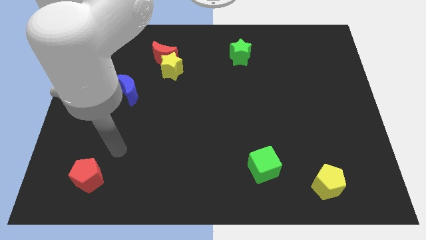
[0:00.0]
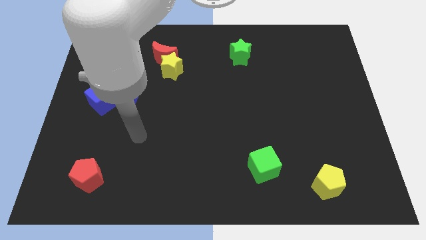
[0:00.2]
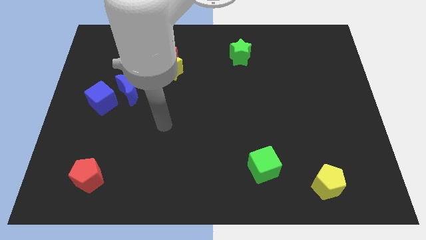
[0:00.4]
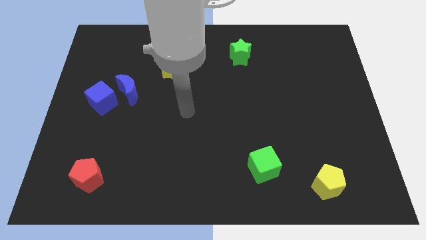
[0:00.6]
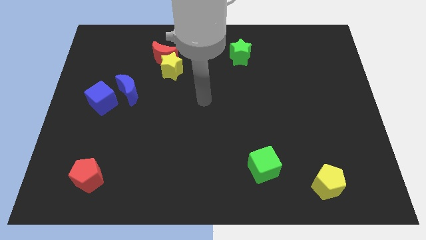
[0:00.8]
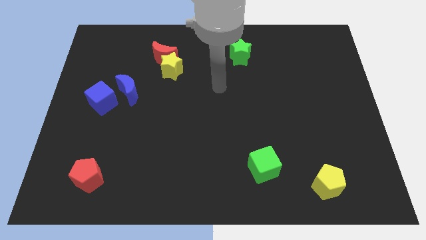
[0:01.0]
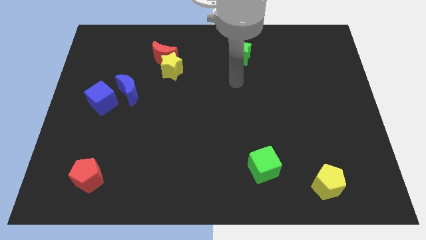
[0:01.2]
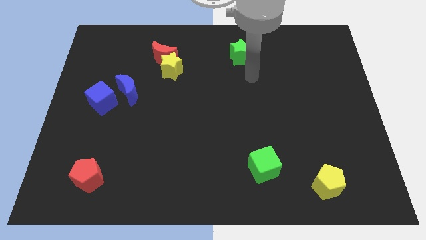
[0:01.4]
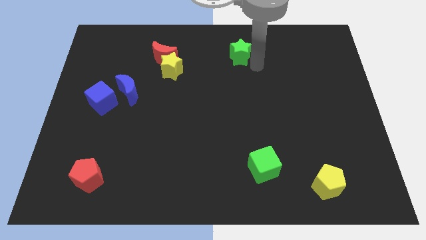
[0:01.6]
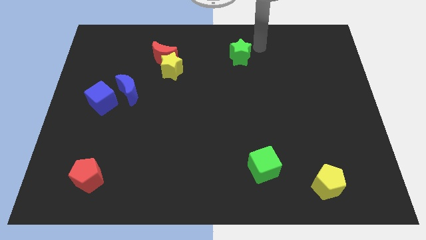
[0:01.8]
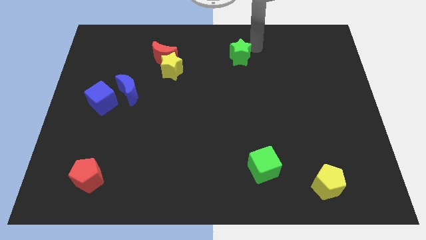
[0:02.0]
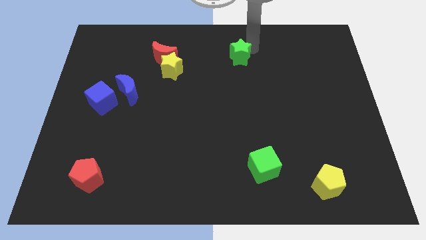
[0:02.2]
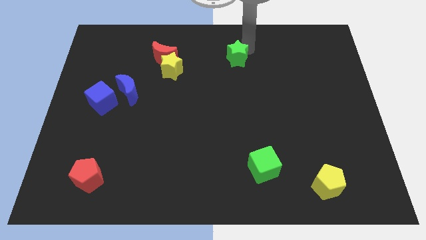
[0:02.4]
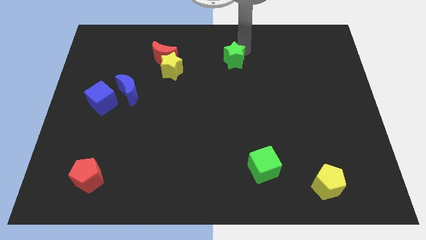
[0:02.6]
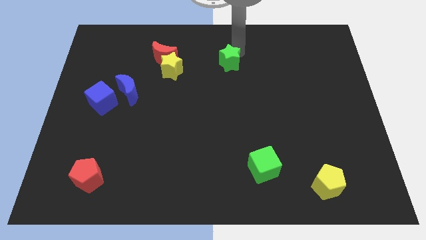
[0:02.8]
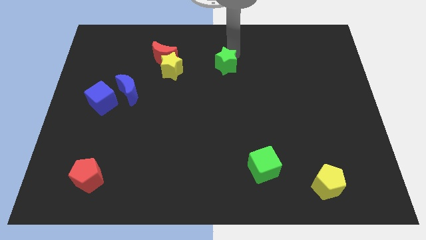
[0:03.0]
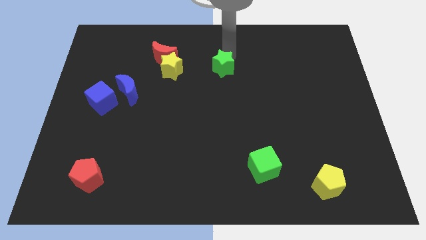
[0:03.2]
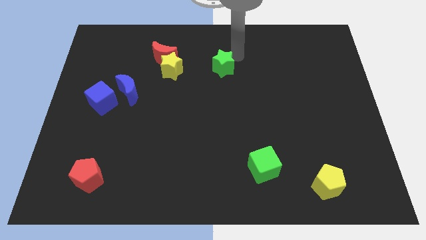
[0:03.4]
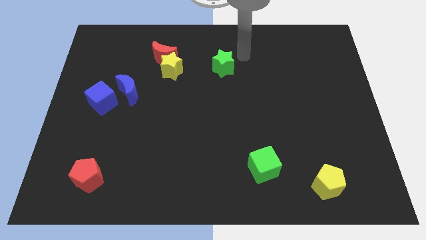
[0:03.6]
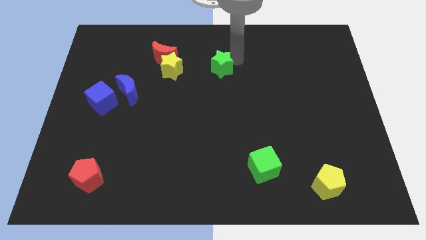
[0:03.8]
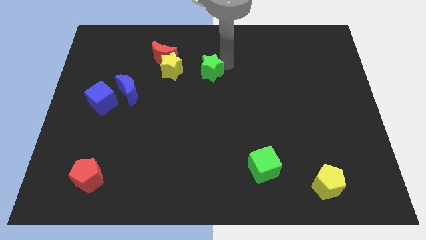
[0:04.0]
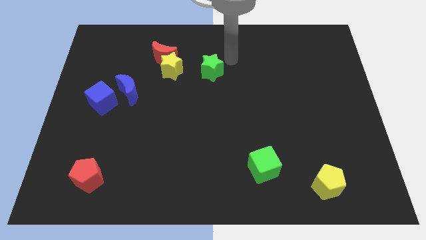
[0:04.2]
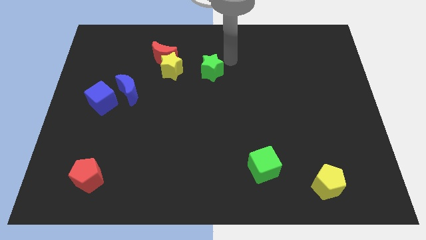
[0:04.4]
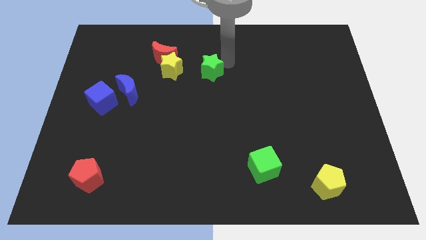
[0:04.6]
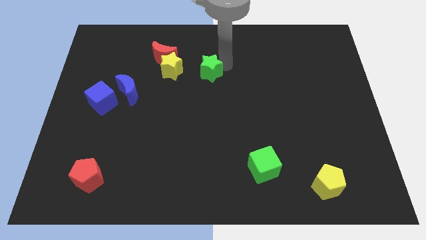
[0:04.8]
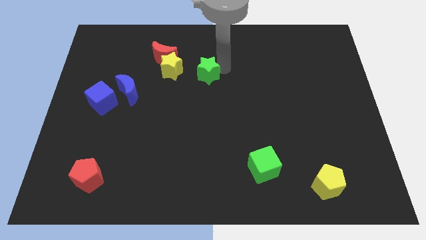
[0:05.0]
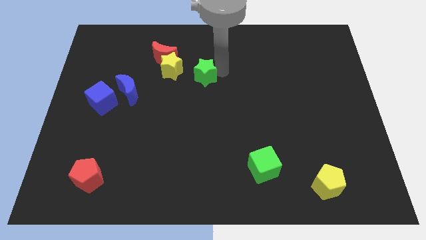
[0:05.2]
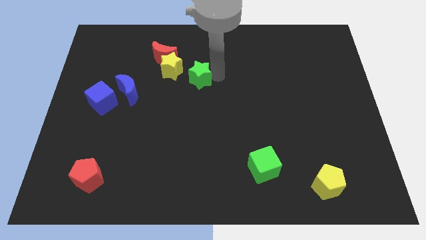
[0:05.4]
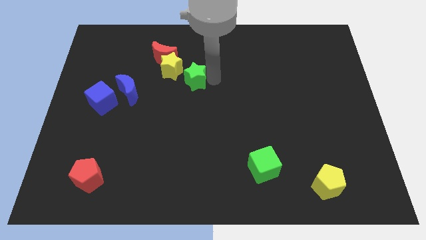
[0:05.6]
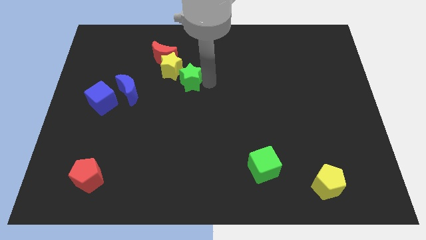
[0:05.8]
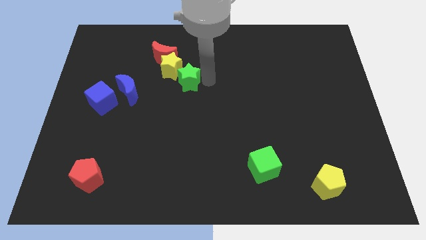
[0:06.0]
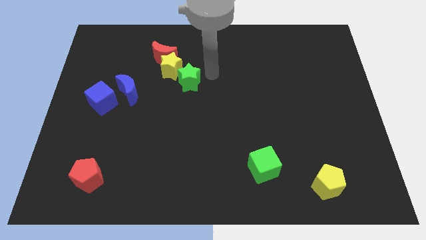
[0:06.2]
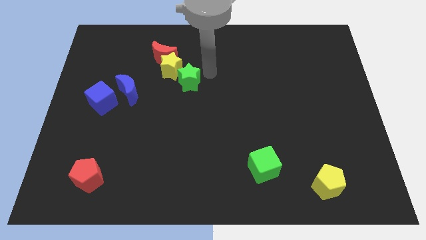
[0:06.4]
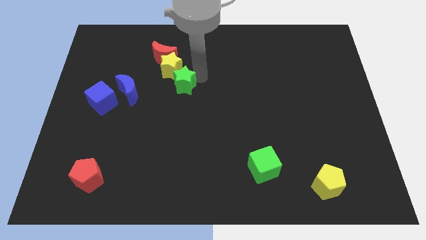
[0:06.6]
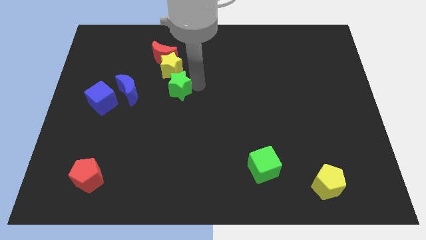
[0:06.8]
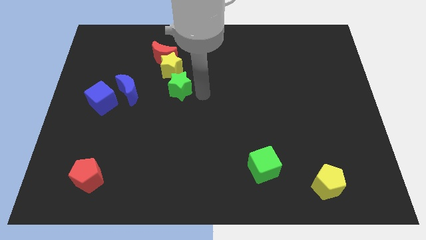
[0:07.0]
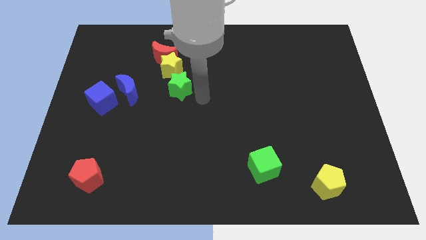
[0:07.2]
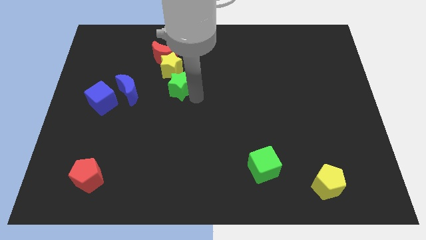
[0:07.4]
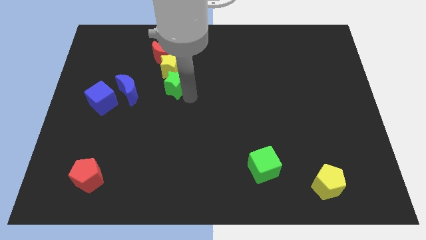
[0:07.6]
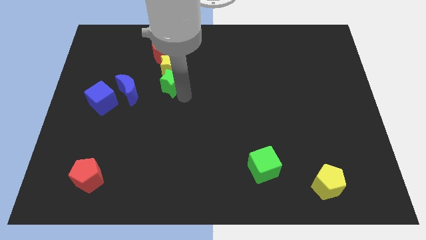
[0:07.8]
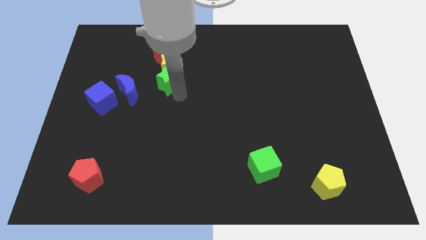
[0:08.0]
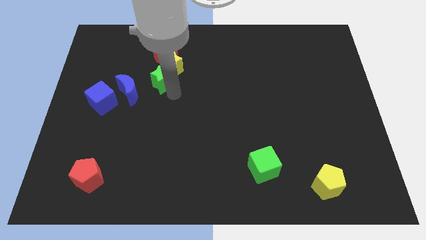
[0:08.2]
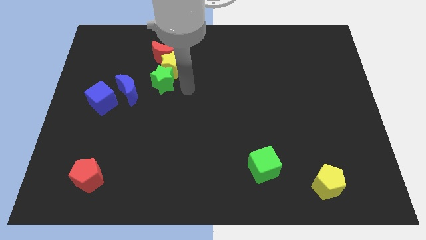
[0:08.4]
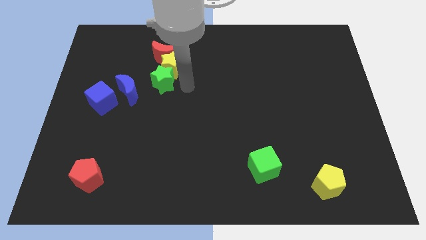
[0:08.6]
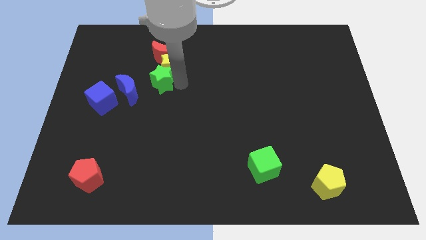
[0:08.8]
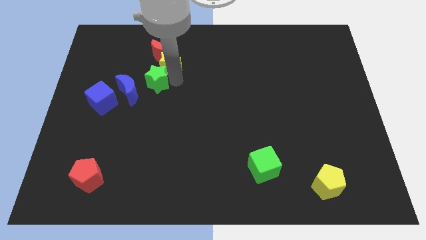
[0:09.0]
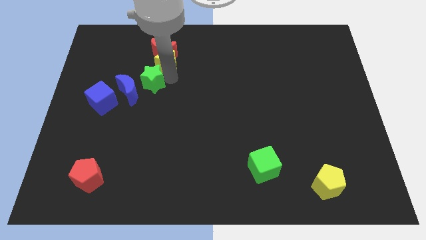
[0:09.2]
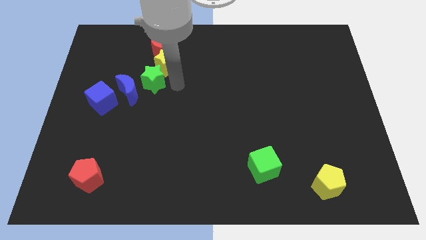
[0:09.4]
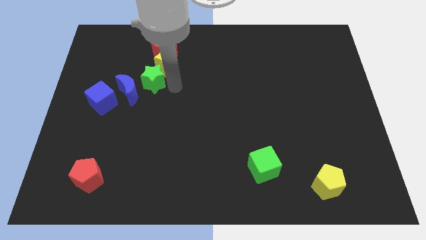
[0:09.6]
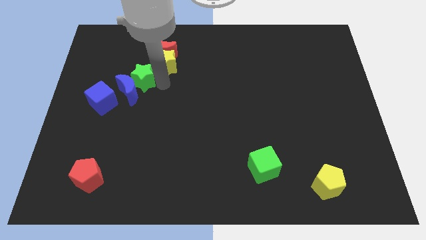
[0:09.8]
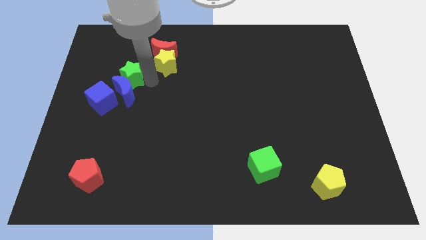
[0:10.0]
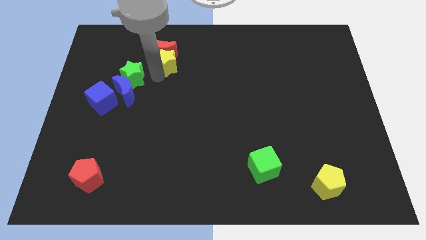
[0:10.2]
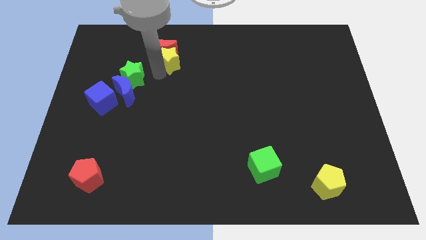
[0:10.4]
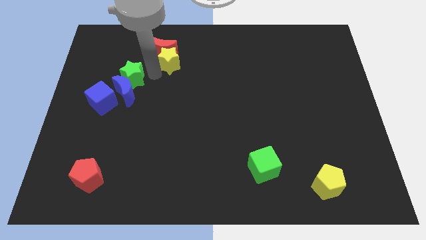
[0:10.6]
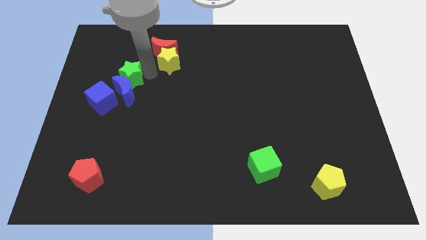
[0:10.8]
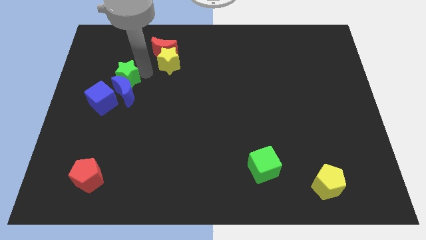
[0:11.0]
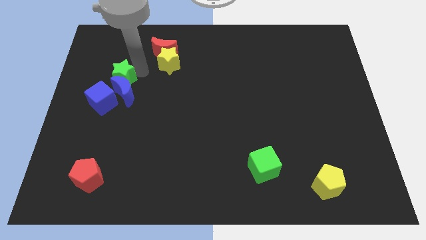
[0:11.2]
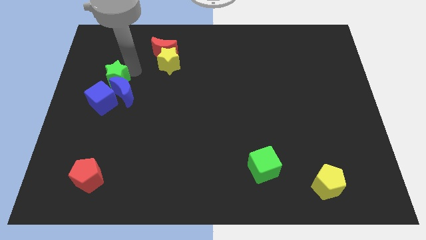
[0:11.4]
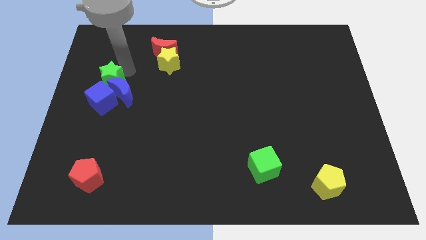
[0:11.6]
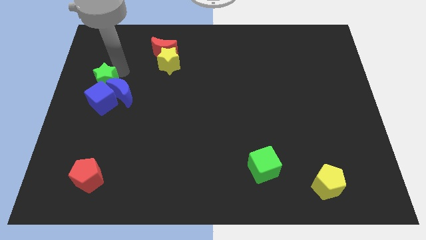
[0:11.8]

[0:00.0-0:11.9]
slide the green star to the left side of the board

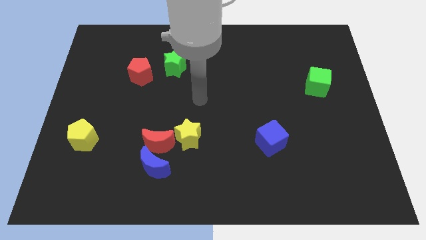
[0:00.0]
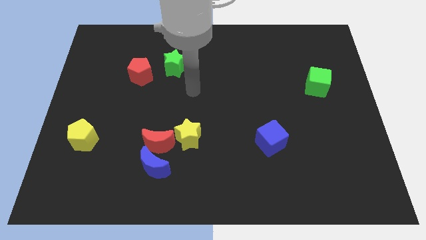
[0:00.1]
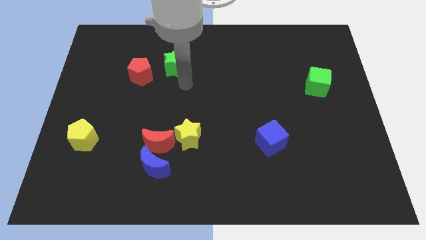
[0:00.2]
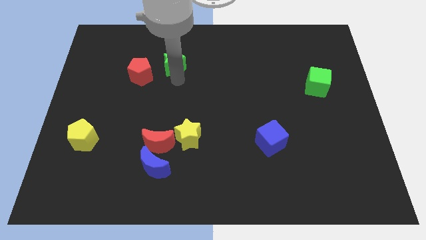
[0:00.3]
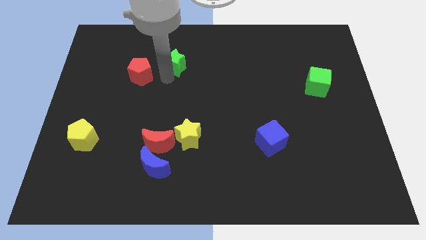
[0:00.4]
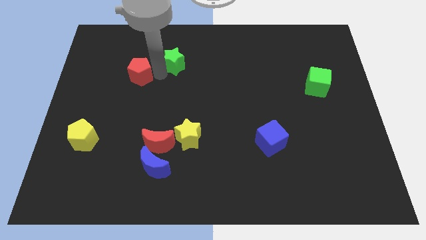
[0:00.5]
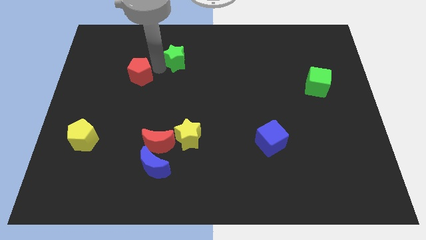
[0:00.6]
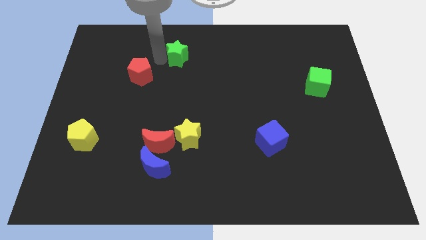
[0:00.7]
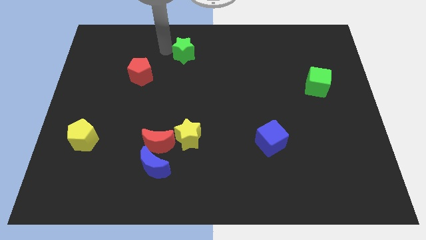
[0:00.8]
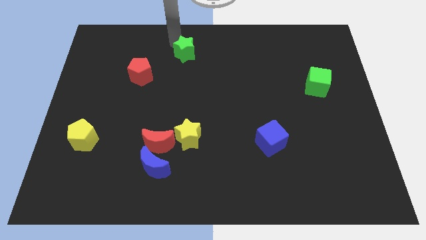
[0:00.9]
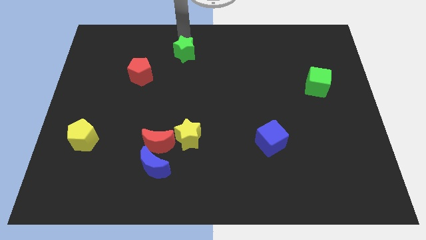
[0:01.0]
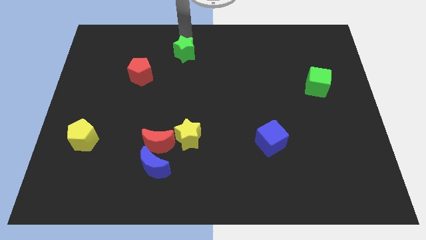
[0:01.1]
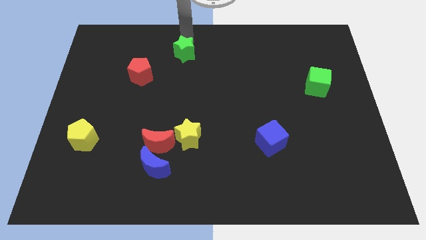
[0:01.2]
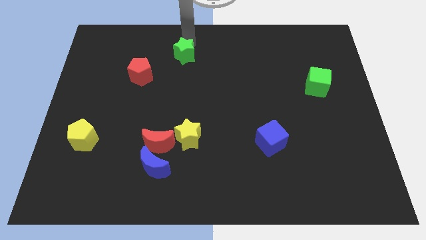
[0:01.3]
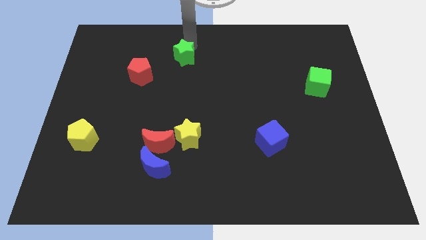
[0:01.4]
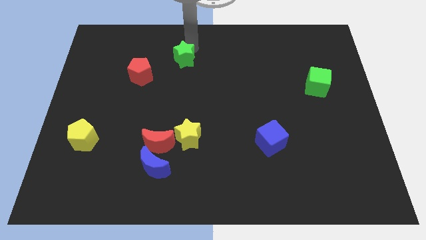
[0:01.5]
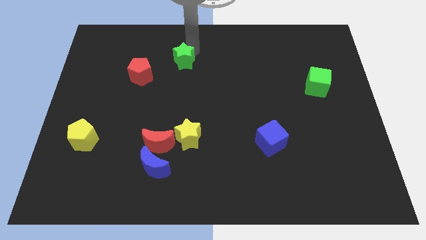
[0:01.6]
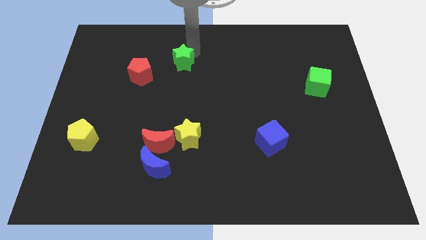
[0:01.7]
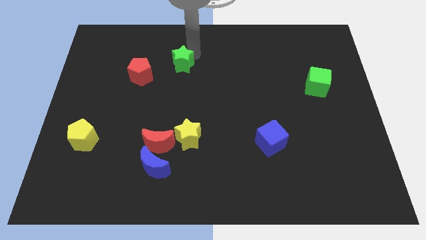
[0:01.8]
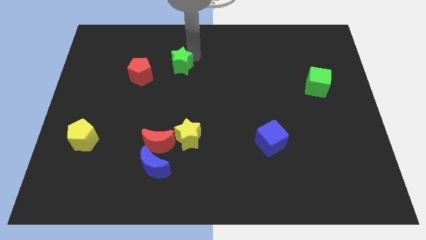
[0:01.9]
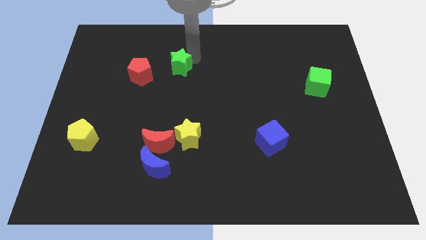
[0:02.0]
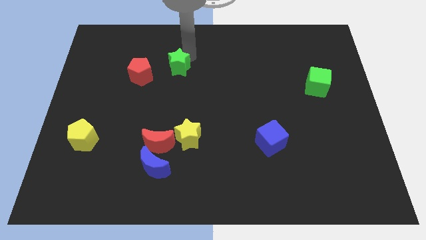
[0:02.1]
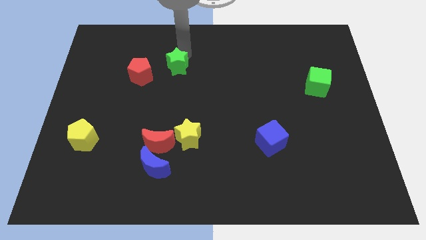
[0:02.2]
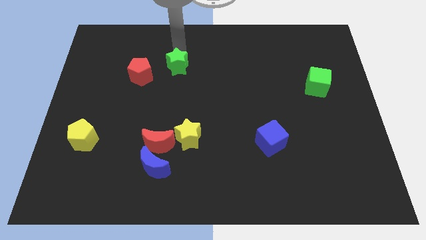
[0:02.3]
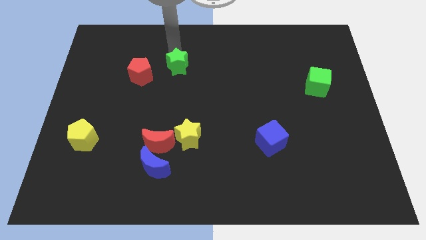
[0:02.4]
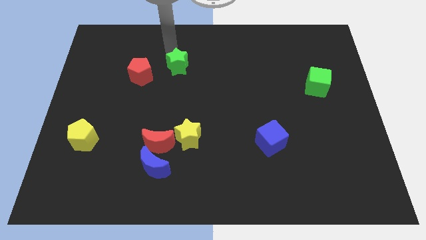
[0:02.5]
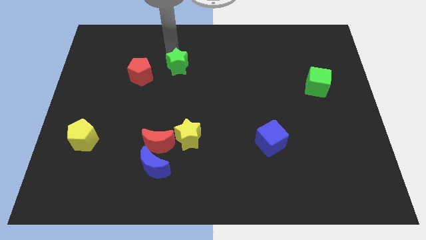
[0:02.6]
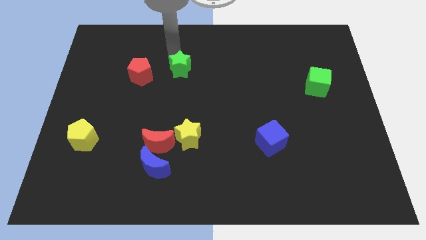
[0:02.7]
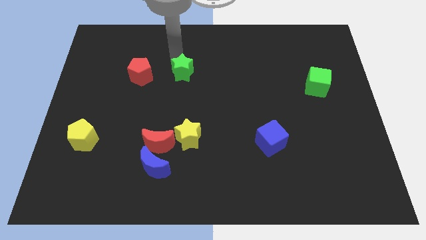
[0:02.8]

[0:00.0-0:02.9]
push the green star to the middle
